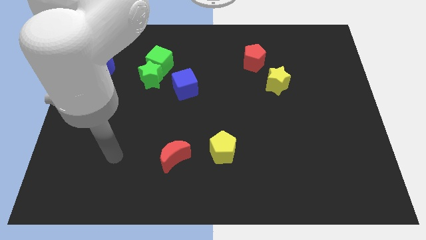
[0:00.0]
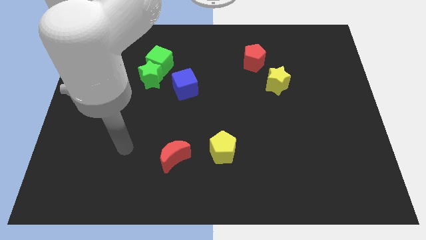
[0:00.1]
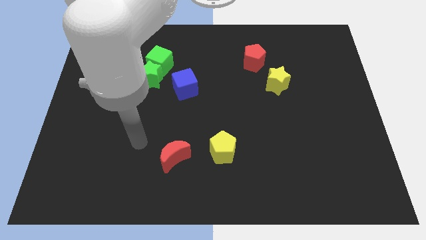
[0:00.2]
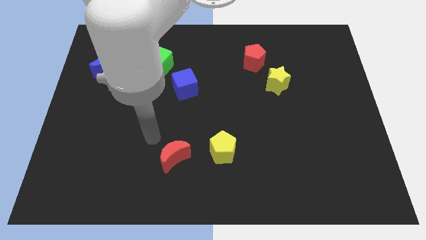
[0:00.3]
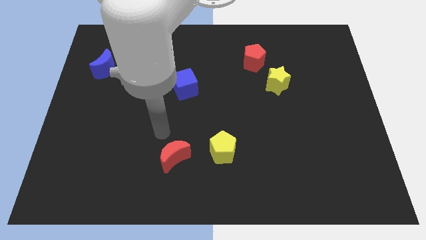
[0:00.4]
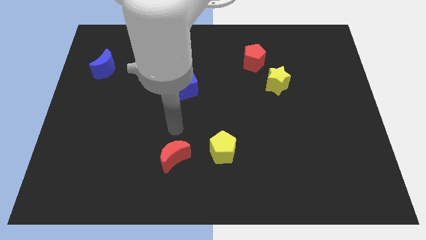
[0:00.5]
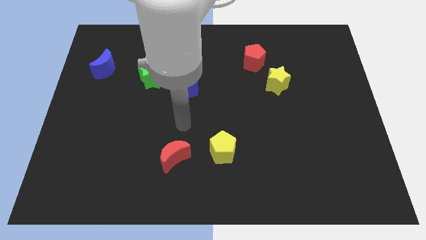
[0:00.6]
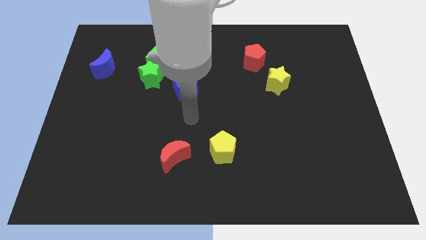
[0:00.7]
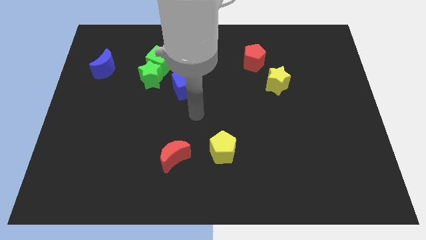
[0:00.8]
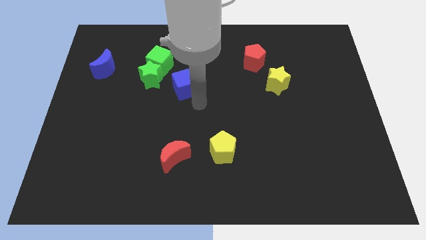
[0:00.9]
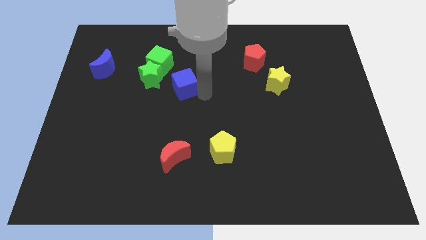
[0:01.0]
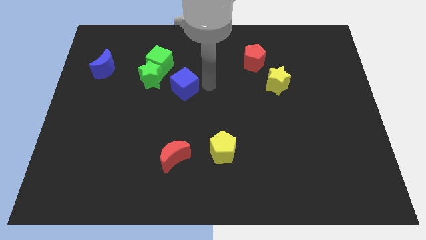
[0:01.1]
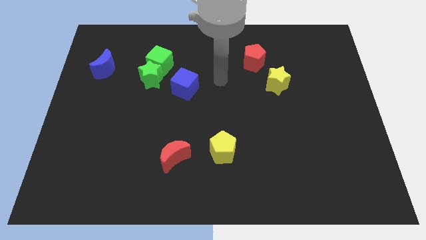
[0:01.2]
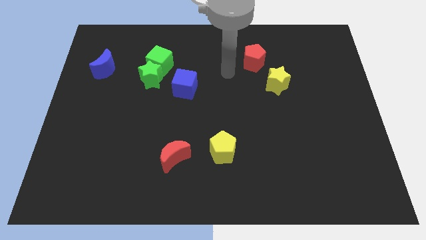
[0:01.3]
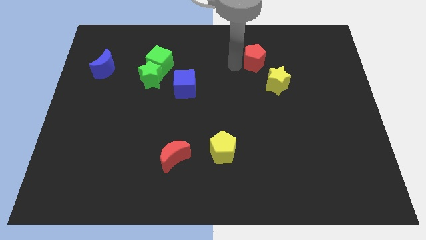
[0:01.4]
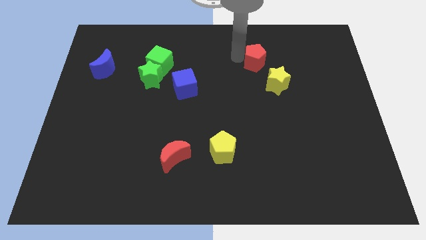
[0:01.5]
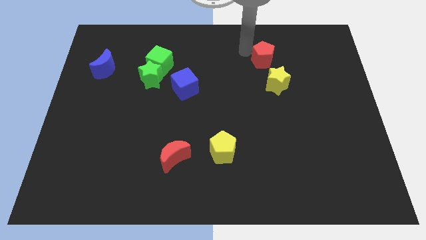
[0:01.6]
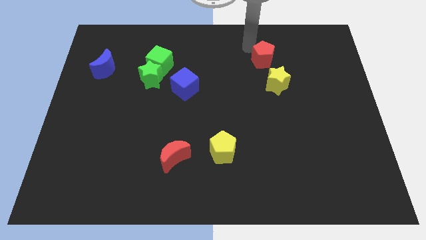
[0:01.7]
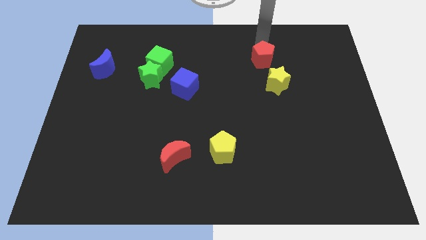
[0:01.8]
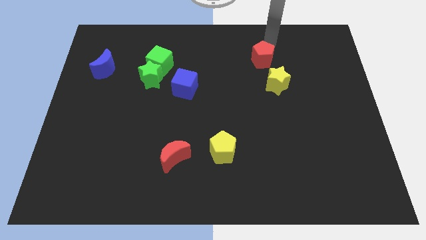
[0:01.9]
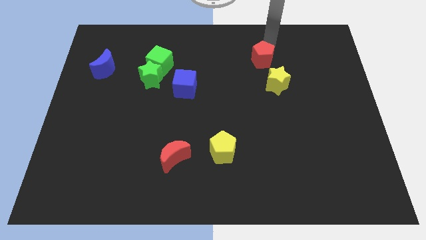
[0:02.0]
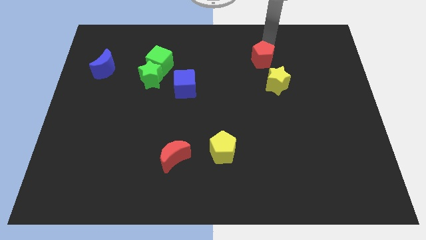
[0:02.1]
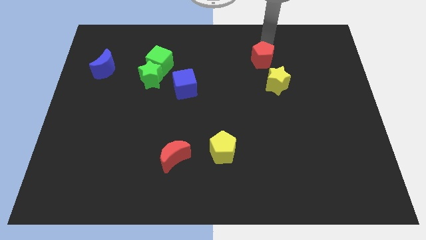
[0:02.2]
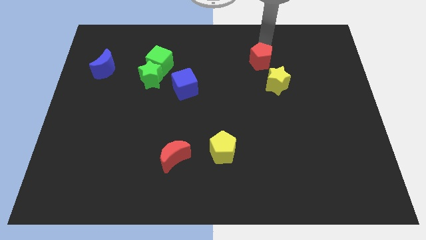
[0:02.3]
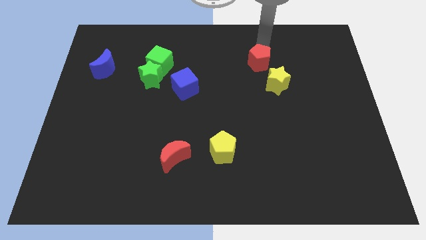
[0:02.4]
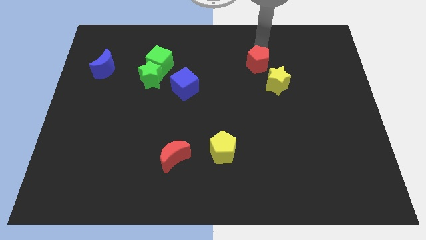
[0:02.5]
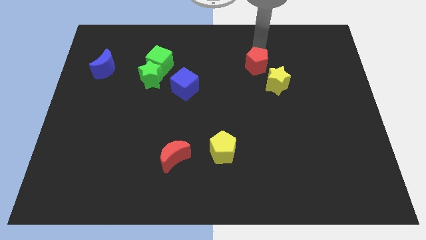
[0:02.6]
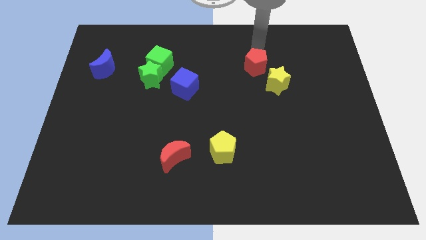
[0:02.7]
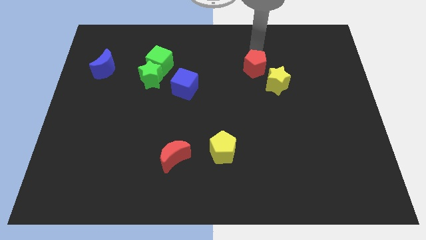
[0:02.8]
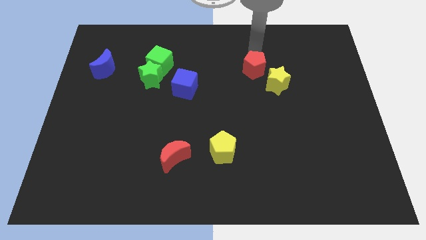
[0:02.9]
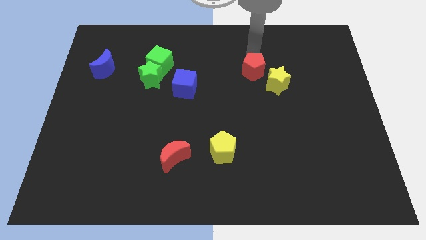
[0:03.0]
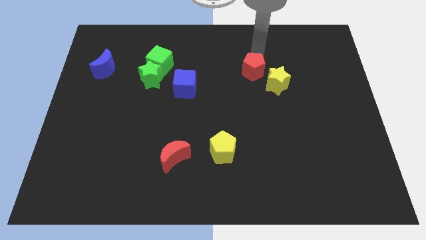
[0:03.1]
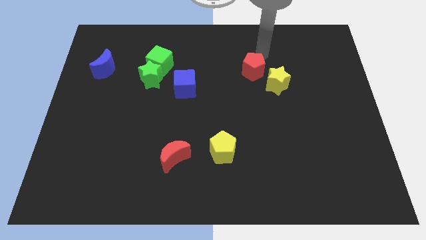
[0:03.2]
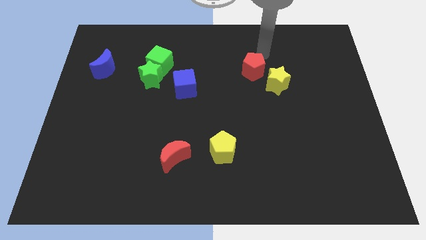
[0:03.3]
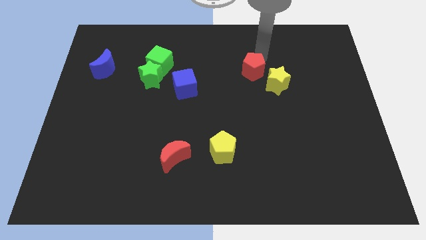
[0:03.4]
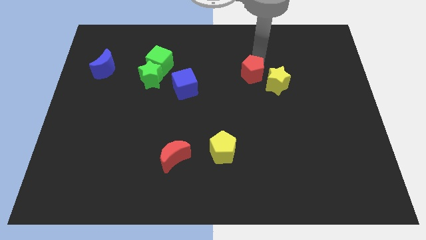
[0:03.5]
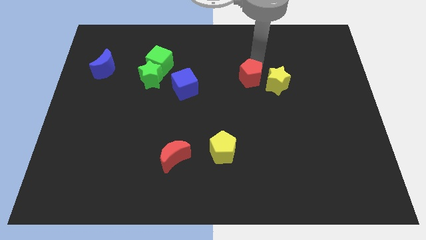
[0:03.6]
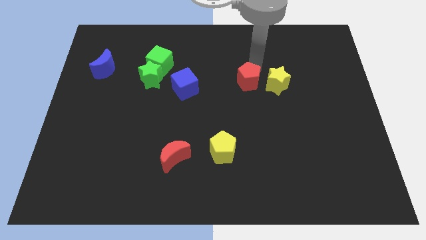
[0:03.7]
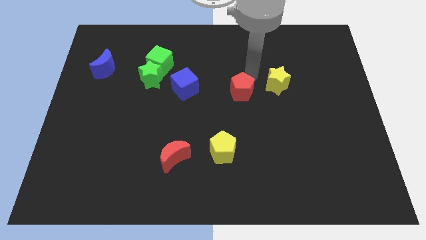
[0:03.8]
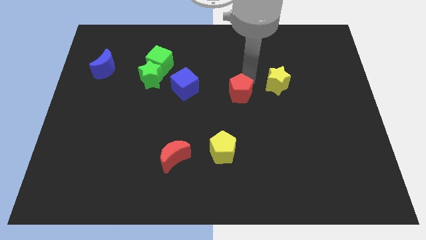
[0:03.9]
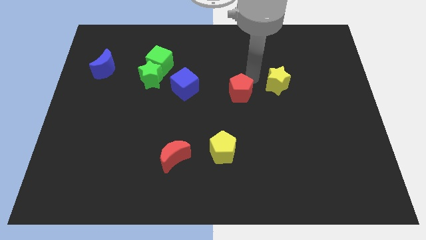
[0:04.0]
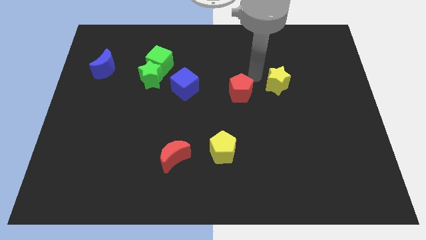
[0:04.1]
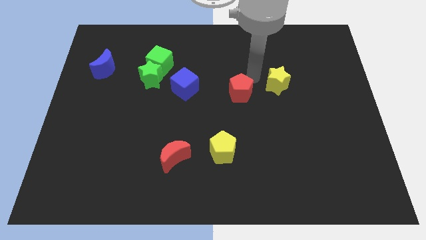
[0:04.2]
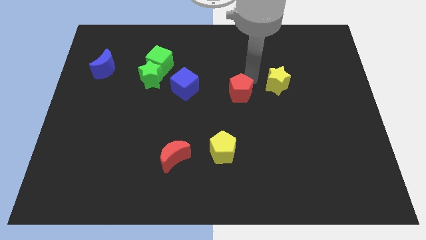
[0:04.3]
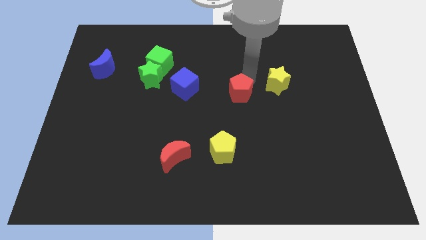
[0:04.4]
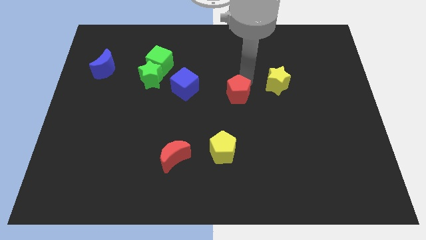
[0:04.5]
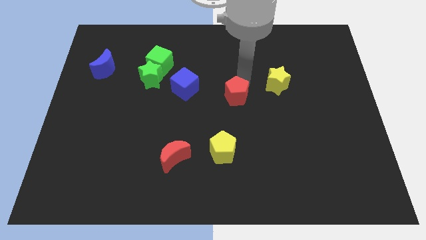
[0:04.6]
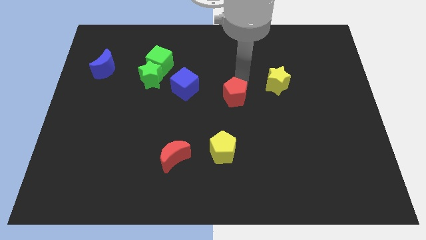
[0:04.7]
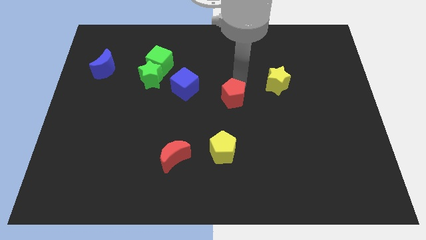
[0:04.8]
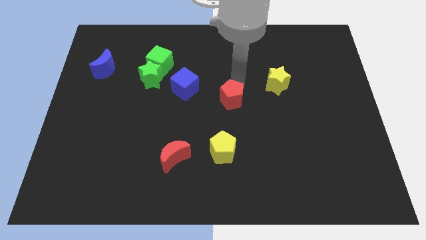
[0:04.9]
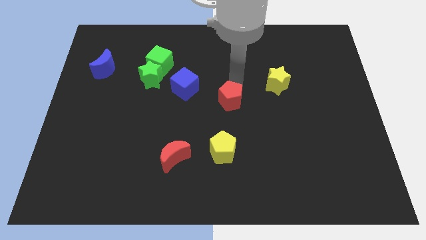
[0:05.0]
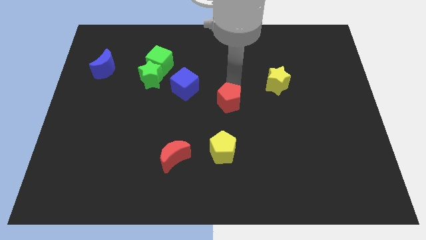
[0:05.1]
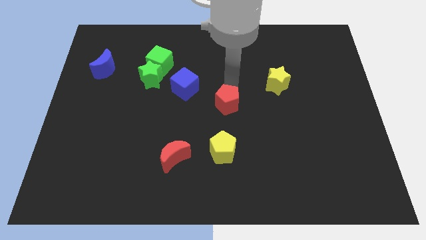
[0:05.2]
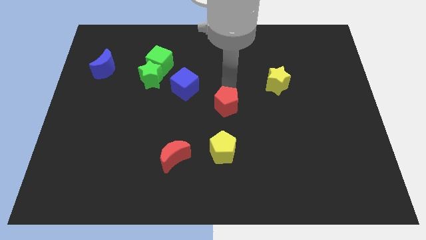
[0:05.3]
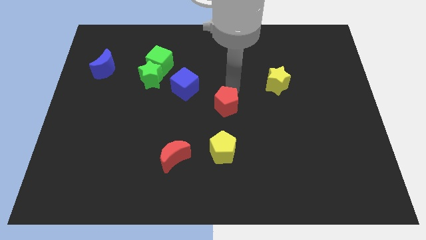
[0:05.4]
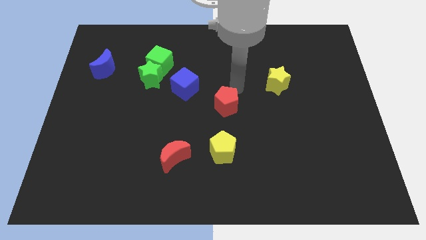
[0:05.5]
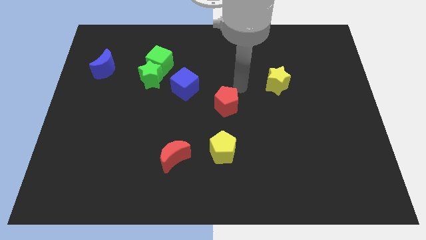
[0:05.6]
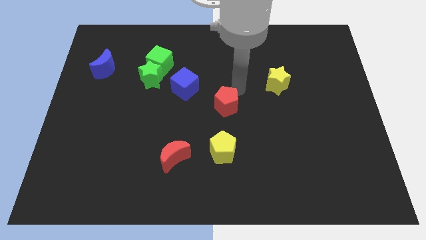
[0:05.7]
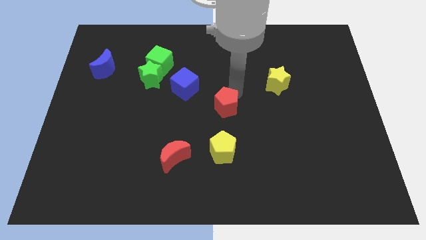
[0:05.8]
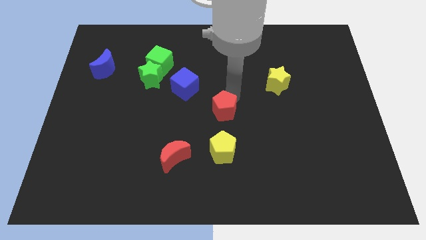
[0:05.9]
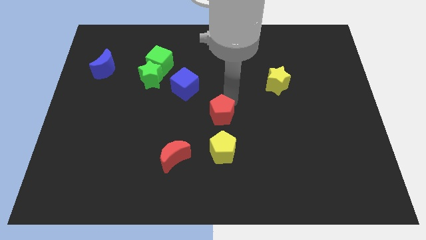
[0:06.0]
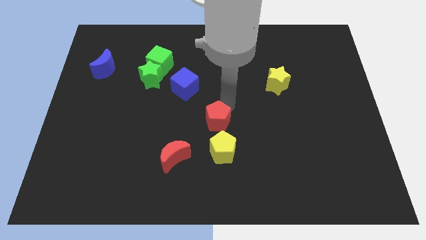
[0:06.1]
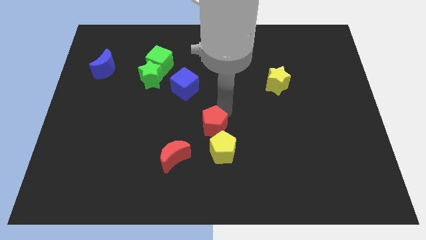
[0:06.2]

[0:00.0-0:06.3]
put the red pentagon diagonally up and to the left of the yellow pentagon
